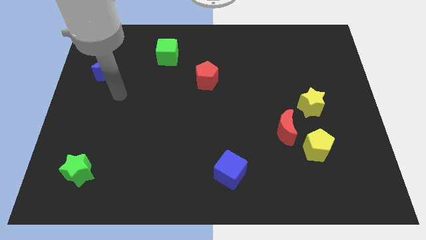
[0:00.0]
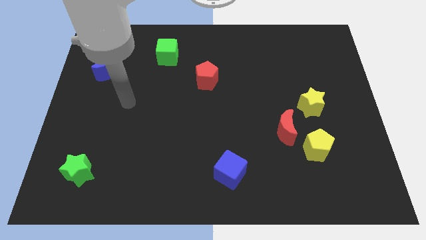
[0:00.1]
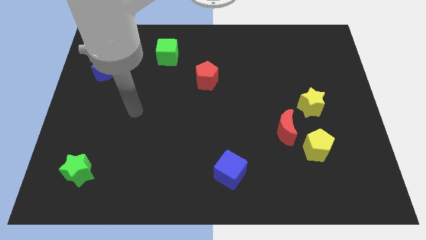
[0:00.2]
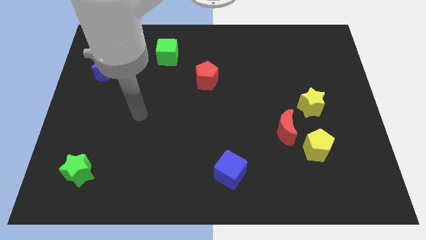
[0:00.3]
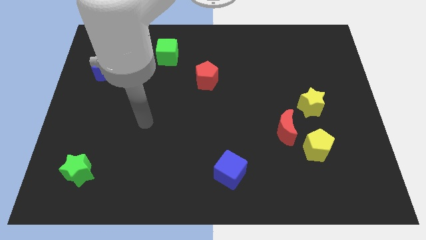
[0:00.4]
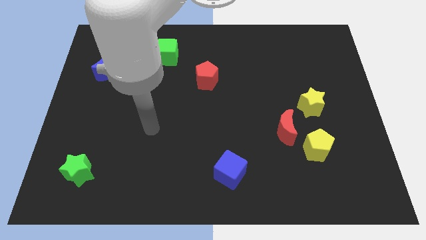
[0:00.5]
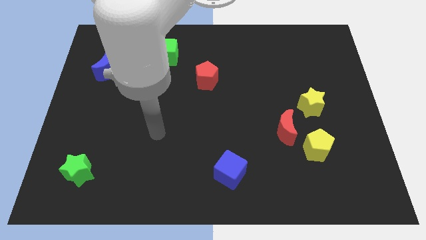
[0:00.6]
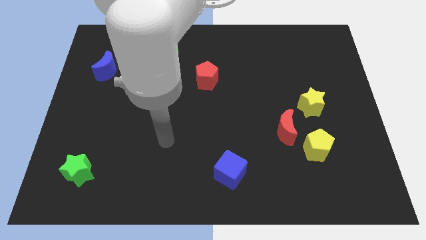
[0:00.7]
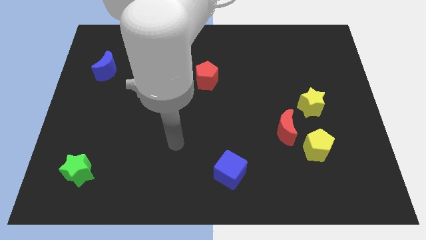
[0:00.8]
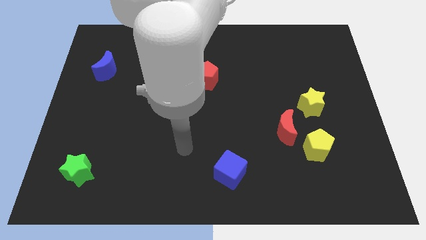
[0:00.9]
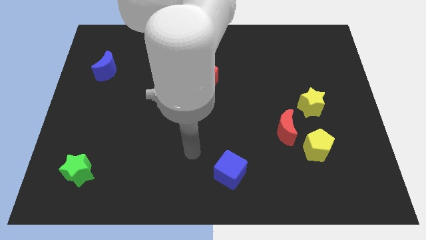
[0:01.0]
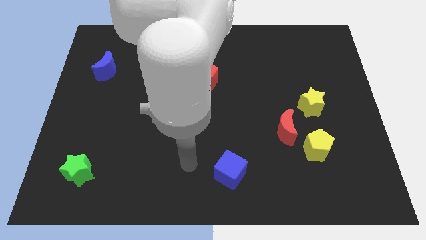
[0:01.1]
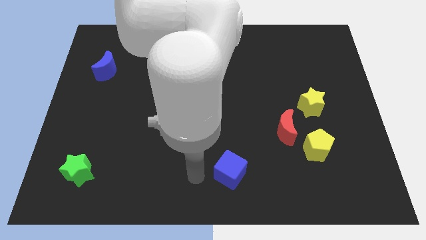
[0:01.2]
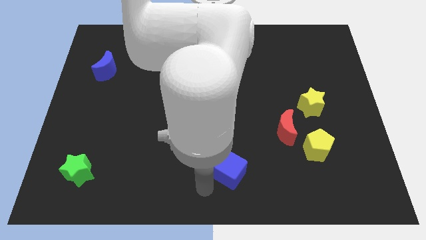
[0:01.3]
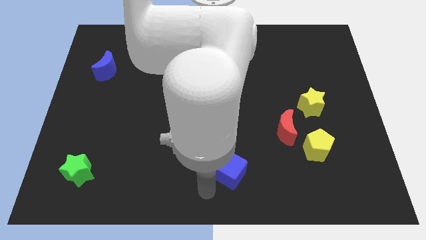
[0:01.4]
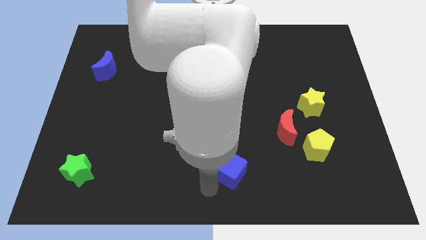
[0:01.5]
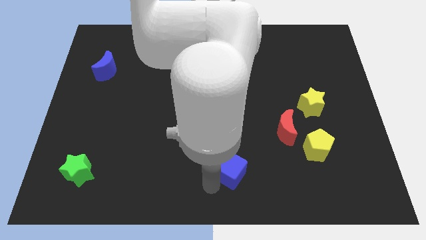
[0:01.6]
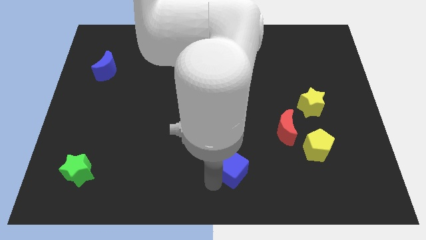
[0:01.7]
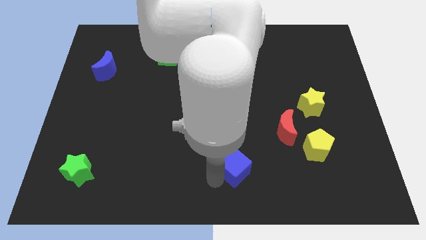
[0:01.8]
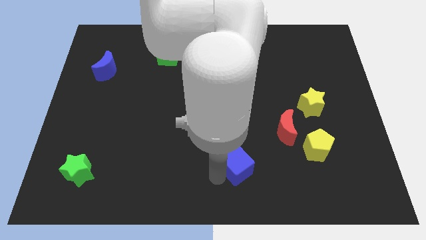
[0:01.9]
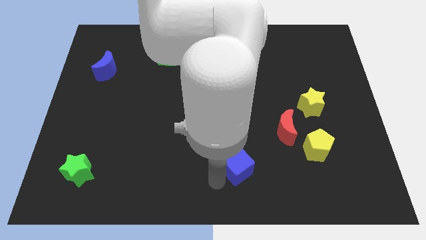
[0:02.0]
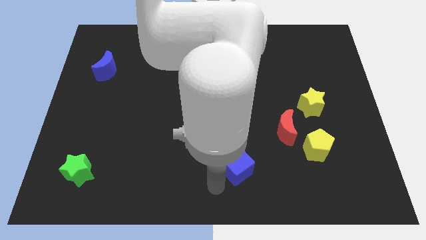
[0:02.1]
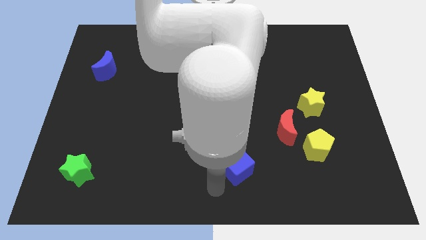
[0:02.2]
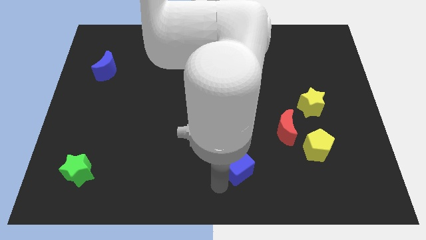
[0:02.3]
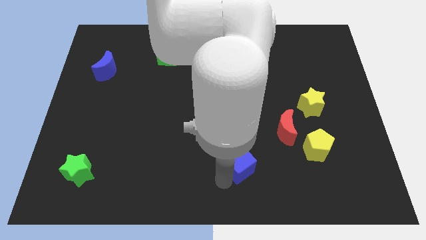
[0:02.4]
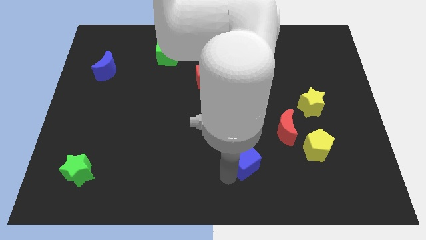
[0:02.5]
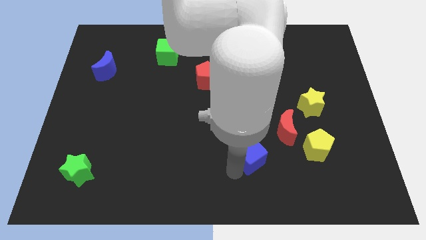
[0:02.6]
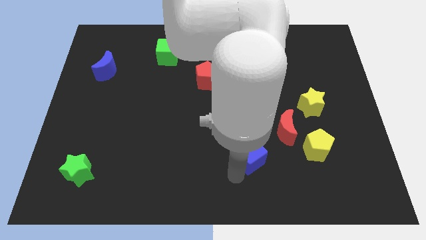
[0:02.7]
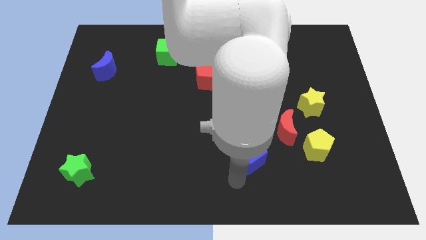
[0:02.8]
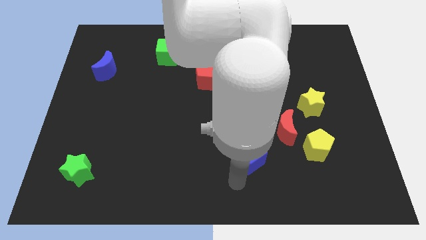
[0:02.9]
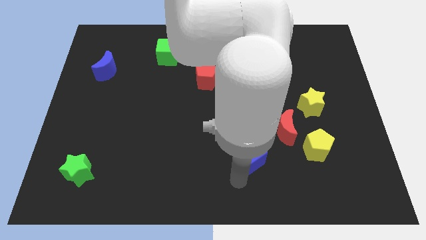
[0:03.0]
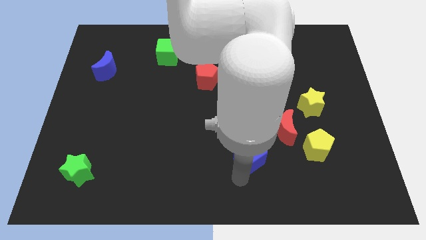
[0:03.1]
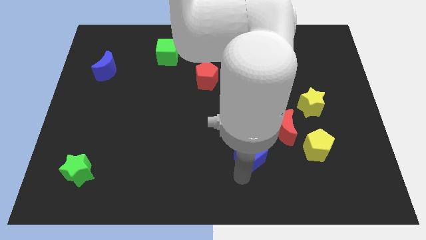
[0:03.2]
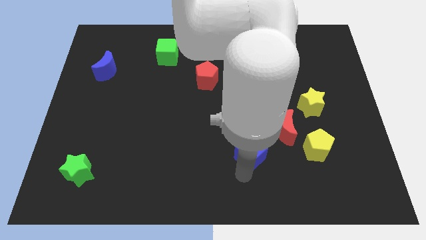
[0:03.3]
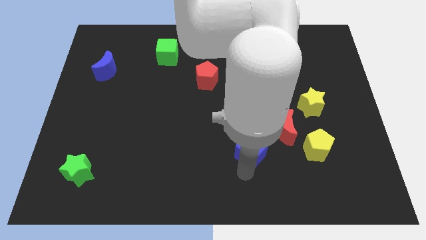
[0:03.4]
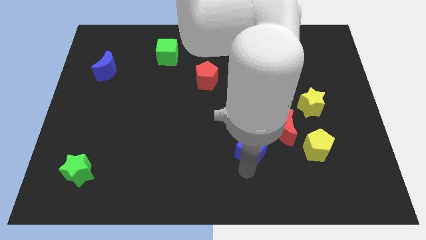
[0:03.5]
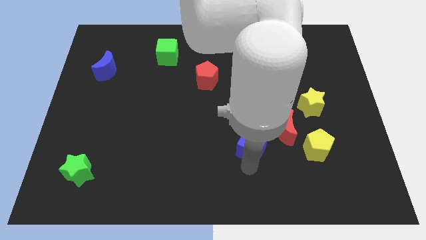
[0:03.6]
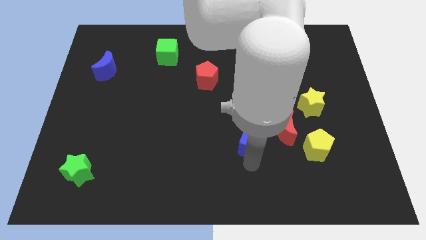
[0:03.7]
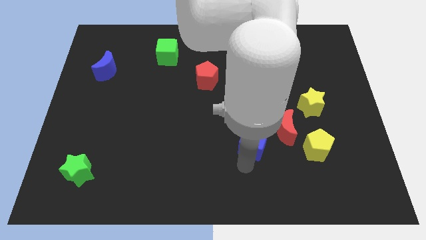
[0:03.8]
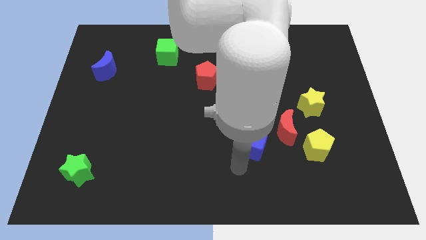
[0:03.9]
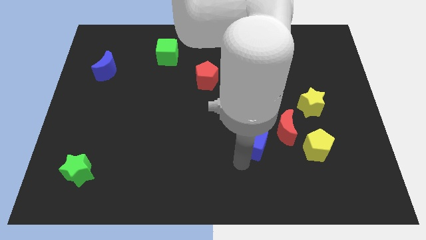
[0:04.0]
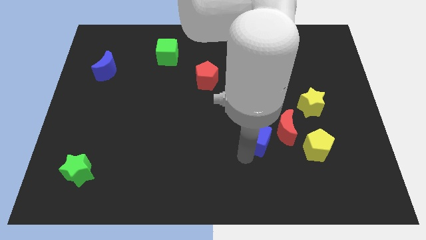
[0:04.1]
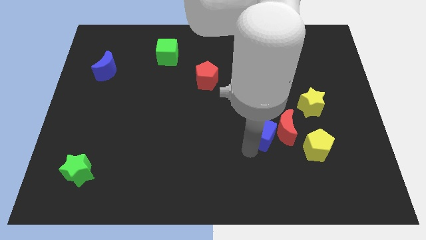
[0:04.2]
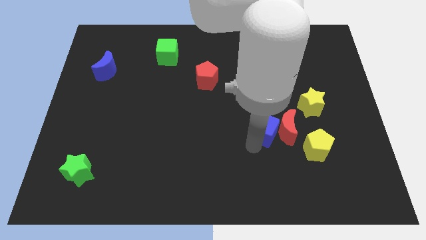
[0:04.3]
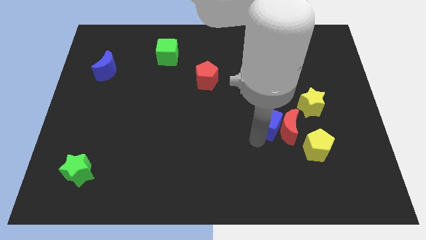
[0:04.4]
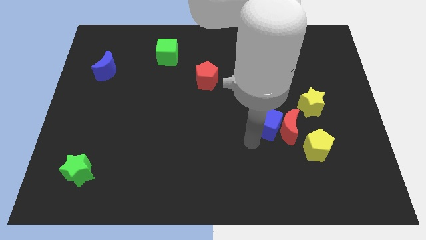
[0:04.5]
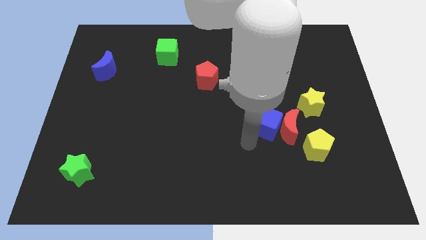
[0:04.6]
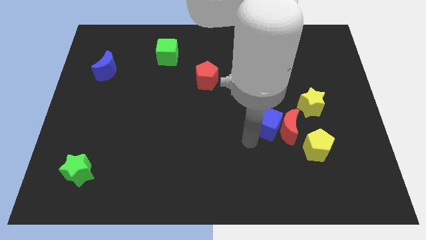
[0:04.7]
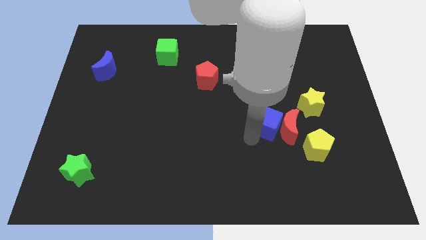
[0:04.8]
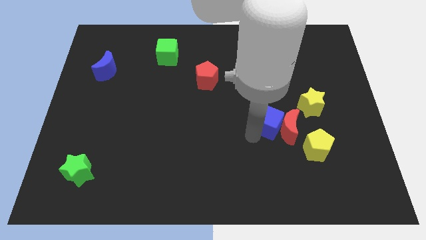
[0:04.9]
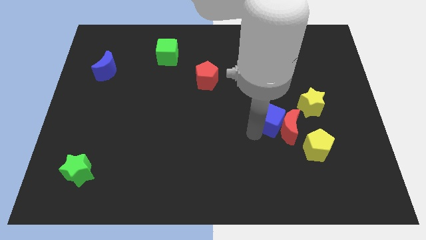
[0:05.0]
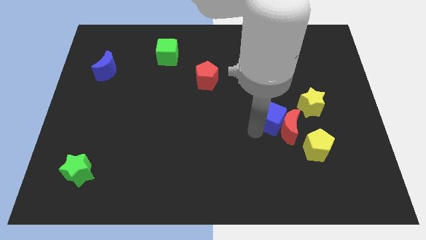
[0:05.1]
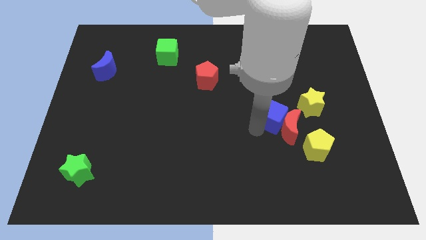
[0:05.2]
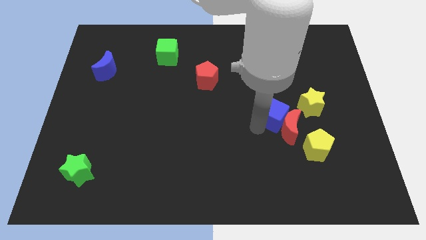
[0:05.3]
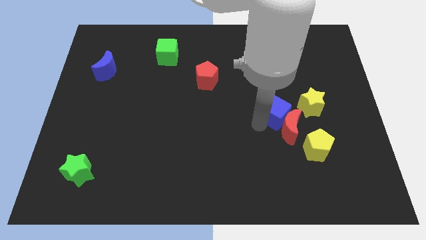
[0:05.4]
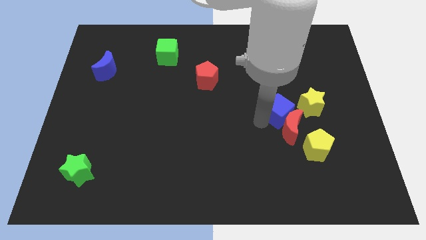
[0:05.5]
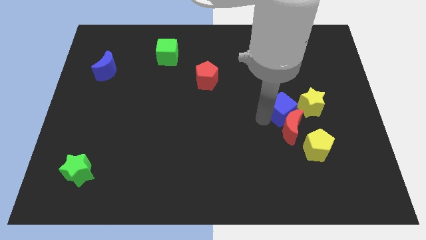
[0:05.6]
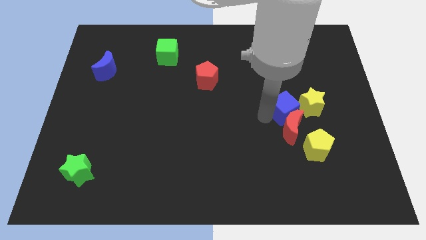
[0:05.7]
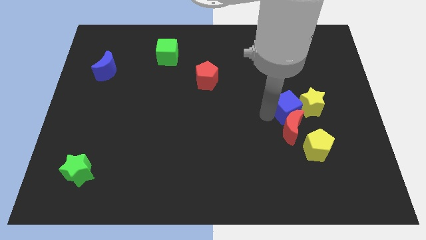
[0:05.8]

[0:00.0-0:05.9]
put the blue cube to the yellow star

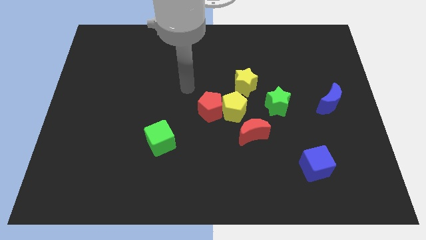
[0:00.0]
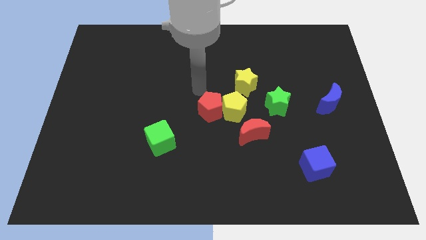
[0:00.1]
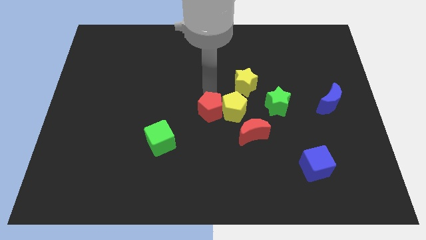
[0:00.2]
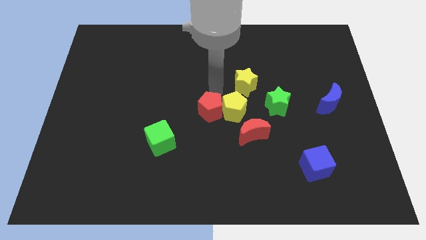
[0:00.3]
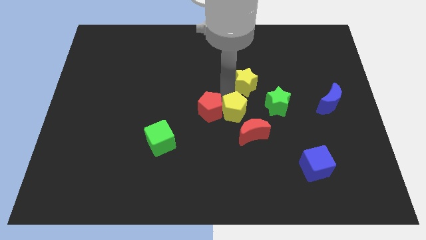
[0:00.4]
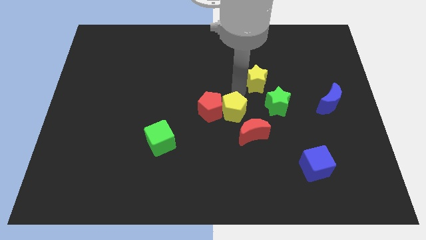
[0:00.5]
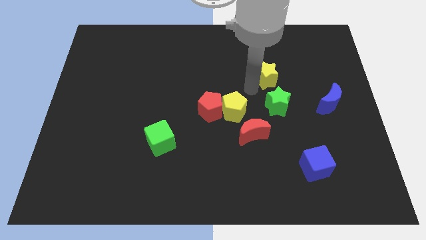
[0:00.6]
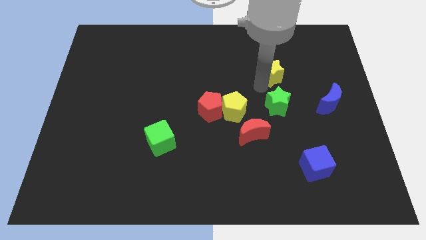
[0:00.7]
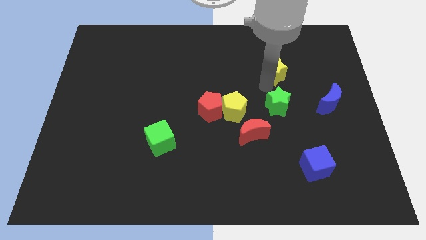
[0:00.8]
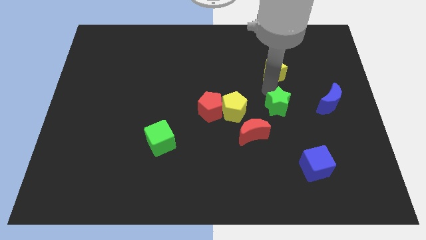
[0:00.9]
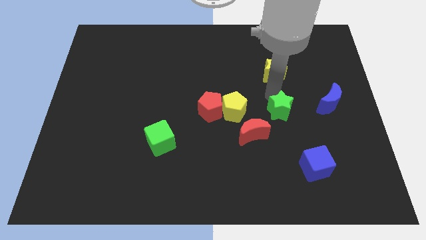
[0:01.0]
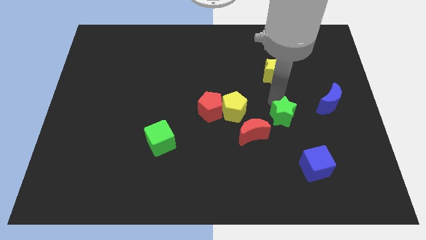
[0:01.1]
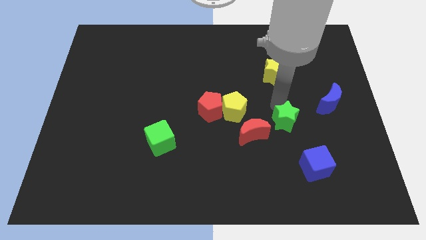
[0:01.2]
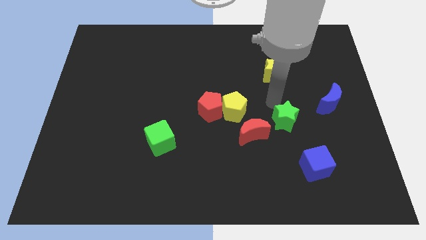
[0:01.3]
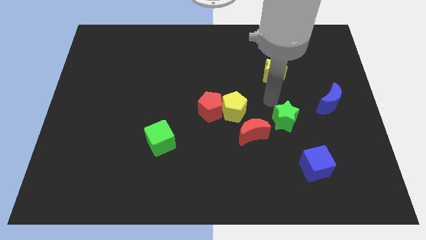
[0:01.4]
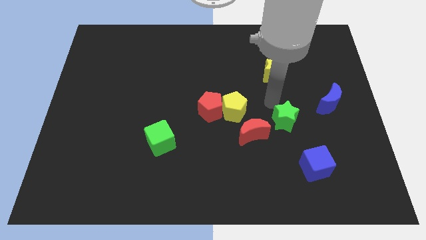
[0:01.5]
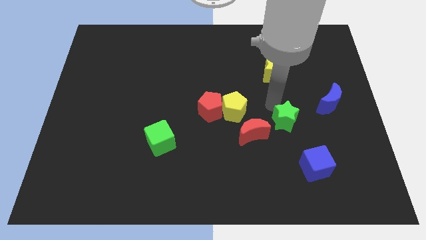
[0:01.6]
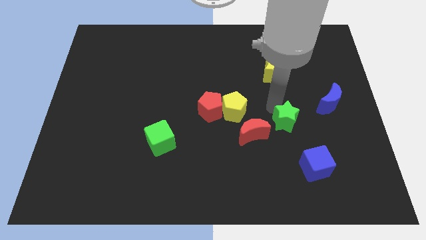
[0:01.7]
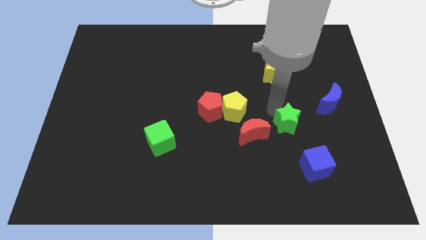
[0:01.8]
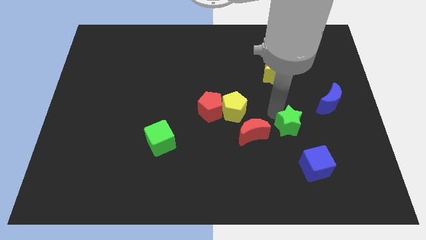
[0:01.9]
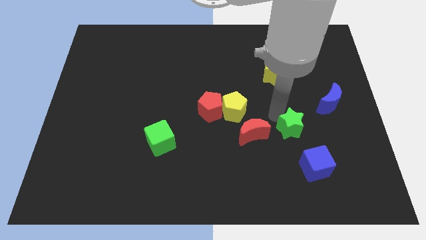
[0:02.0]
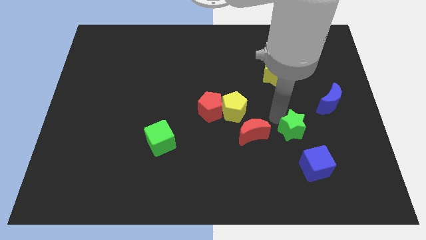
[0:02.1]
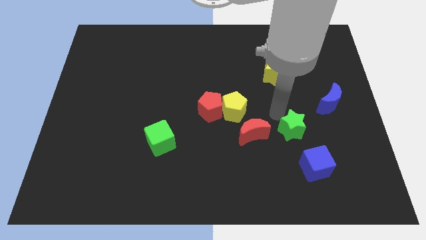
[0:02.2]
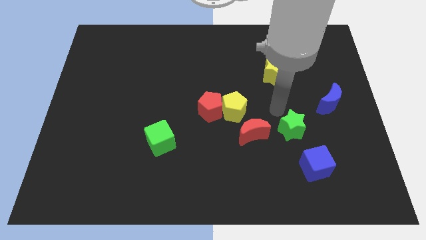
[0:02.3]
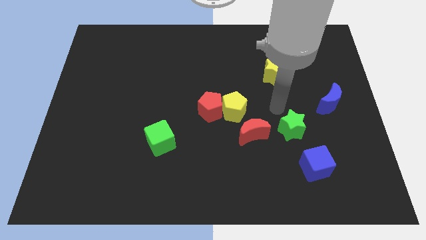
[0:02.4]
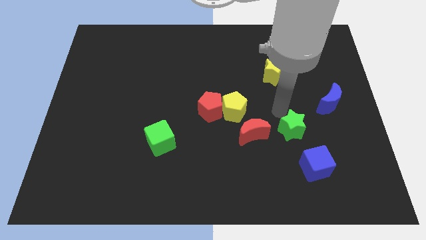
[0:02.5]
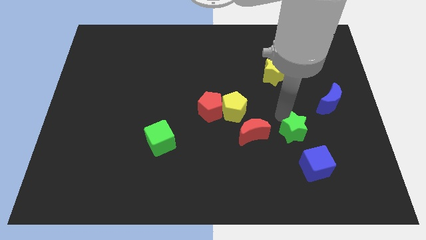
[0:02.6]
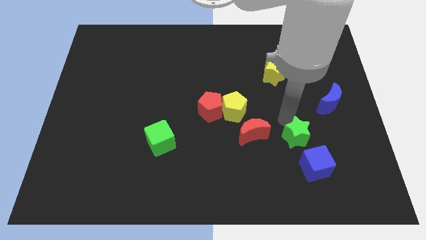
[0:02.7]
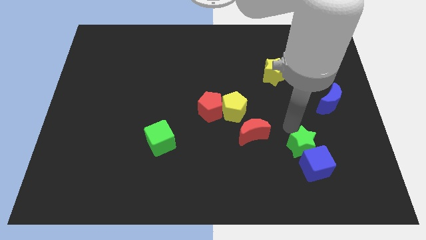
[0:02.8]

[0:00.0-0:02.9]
move the green star close to the blue cube
